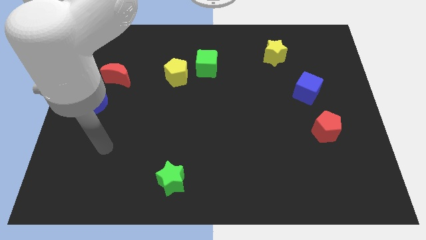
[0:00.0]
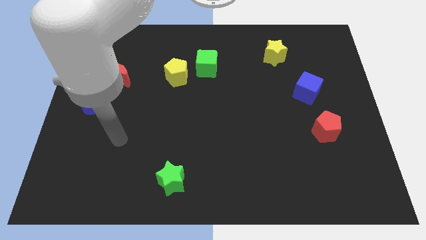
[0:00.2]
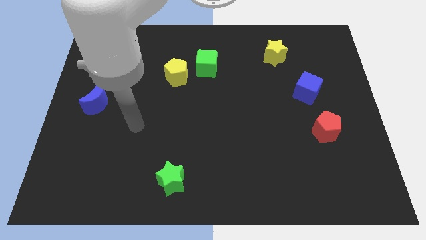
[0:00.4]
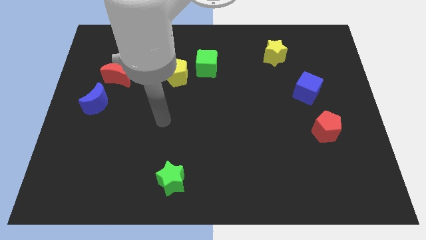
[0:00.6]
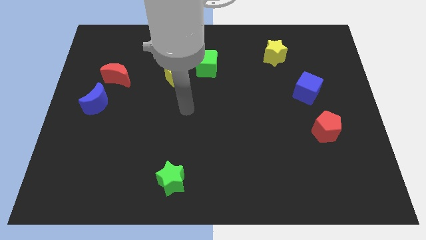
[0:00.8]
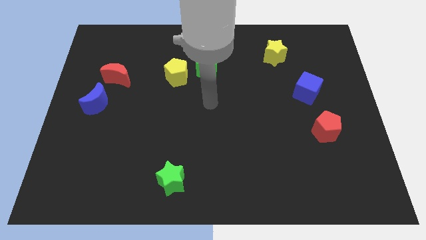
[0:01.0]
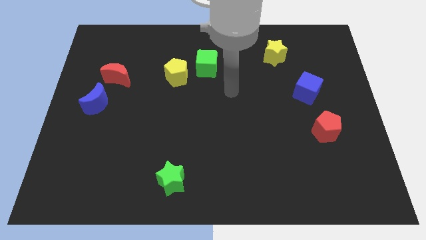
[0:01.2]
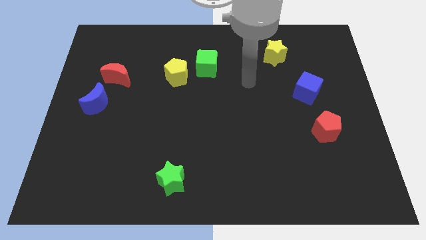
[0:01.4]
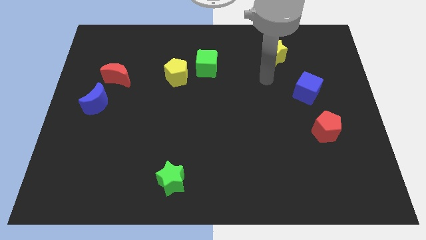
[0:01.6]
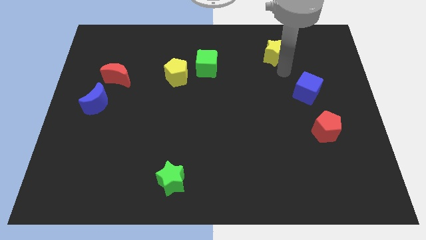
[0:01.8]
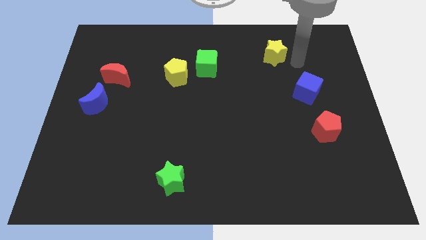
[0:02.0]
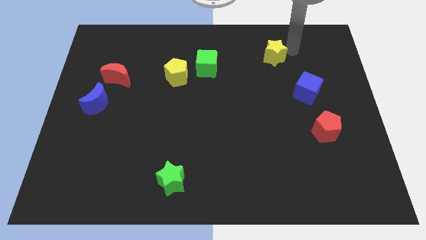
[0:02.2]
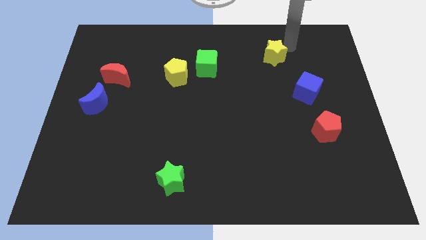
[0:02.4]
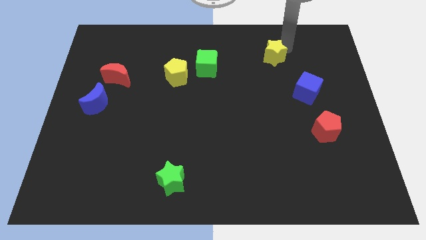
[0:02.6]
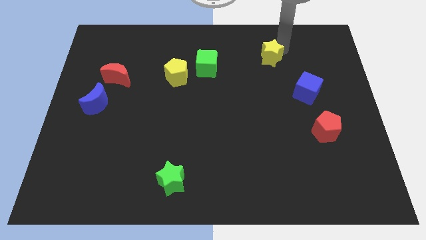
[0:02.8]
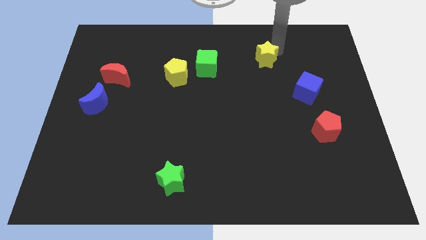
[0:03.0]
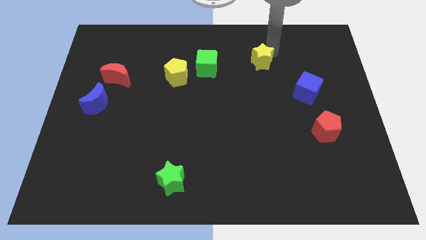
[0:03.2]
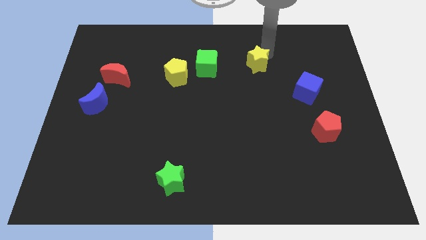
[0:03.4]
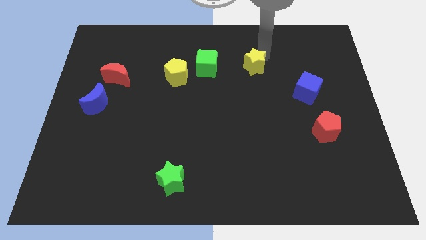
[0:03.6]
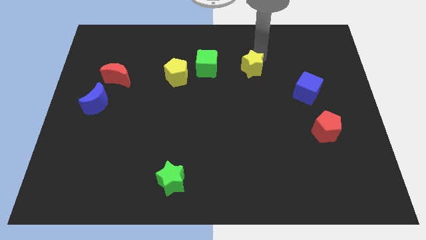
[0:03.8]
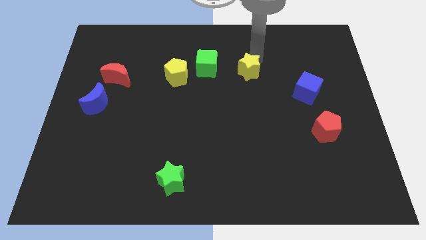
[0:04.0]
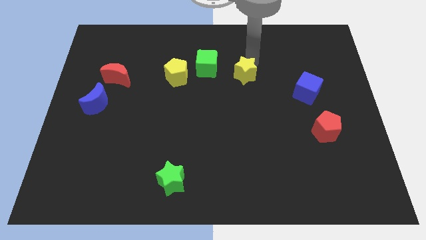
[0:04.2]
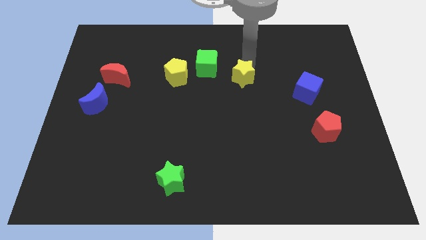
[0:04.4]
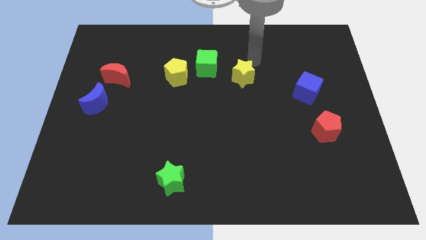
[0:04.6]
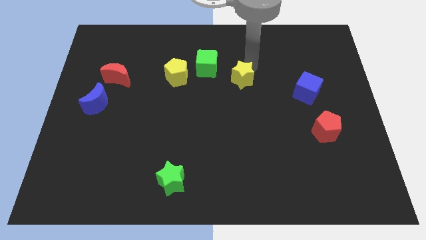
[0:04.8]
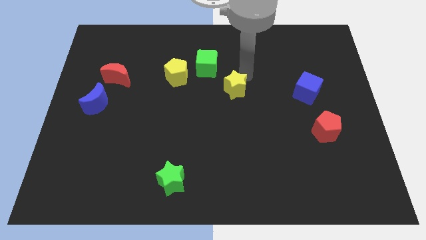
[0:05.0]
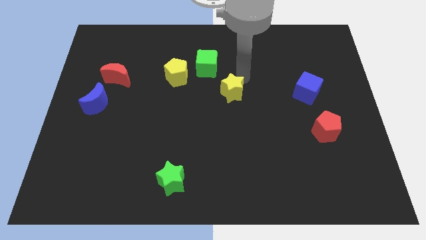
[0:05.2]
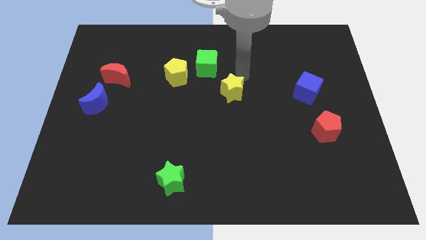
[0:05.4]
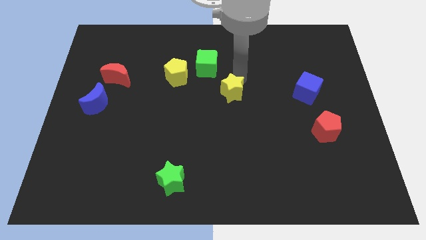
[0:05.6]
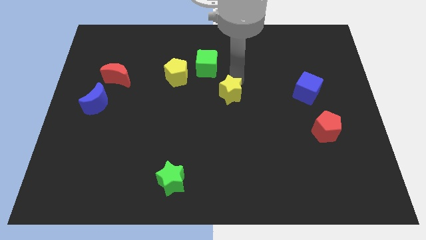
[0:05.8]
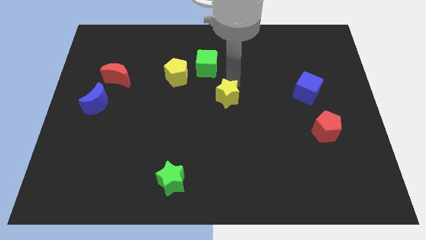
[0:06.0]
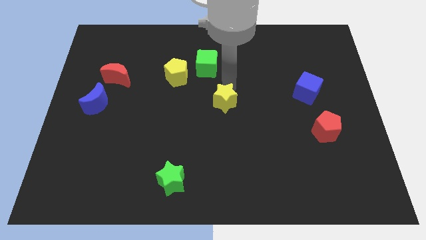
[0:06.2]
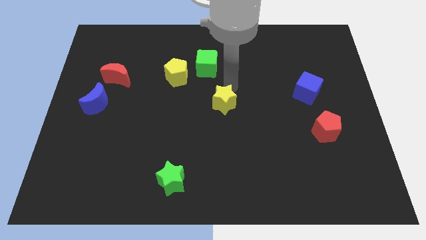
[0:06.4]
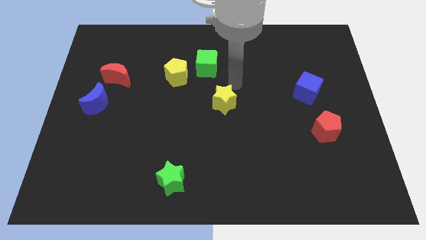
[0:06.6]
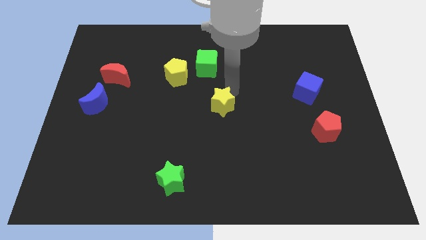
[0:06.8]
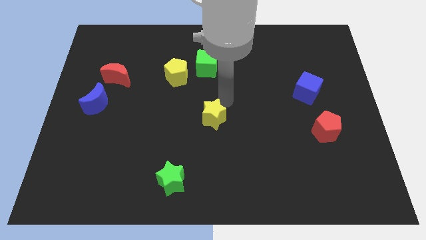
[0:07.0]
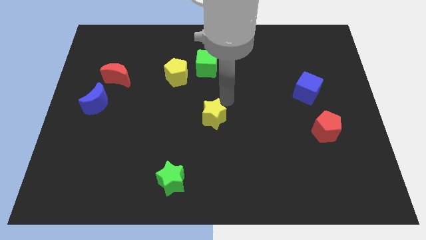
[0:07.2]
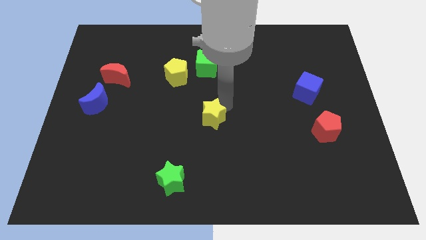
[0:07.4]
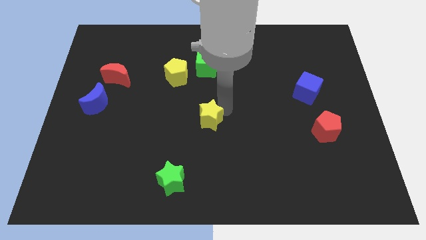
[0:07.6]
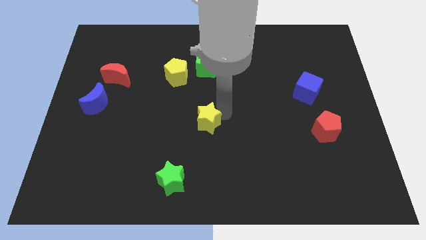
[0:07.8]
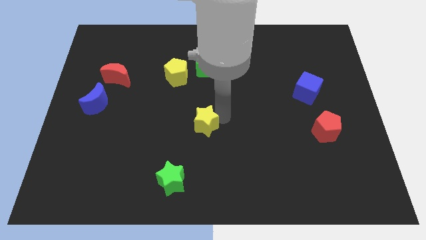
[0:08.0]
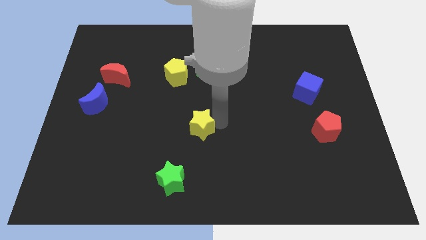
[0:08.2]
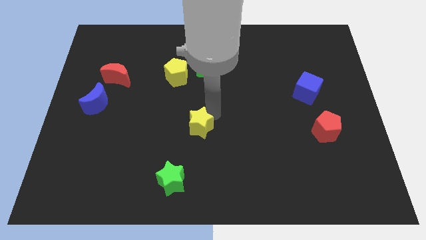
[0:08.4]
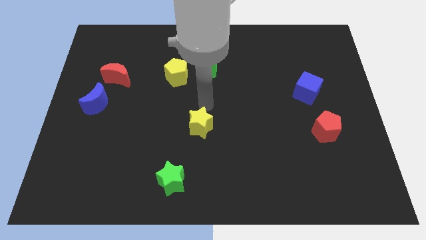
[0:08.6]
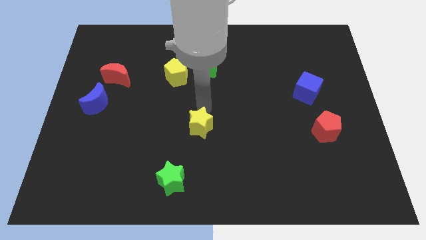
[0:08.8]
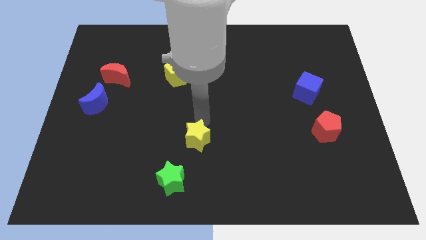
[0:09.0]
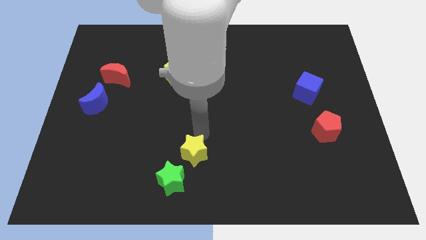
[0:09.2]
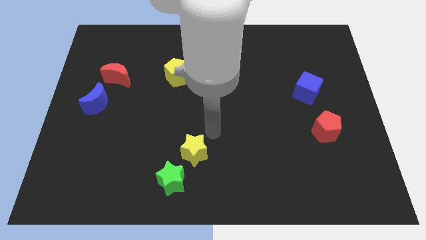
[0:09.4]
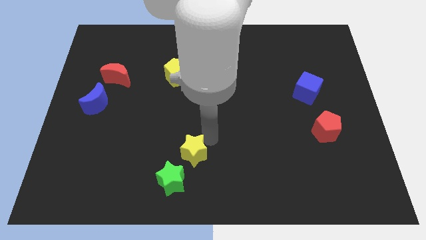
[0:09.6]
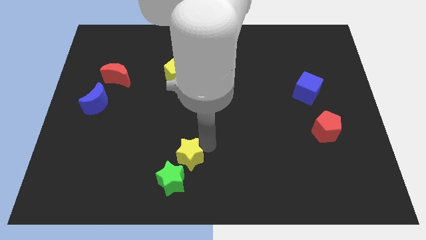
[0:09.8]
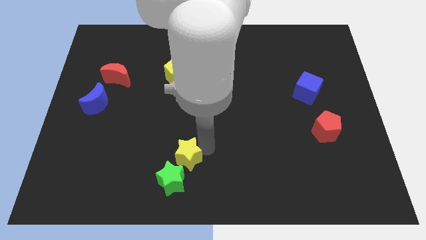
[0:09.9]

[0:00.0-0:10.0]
move the yellow star next to the green star

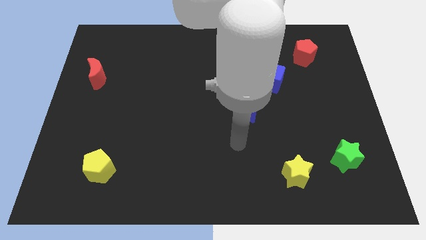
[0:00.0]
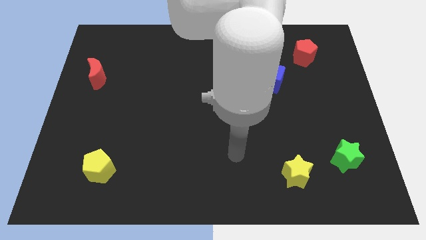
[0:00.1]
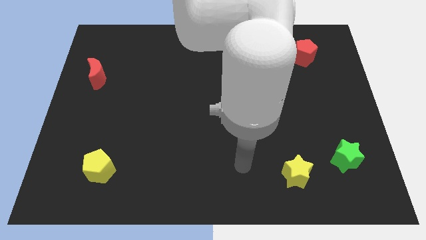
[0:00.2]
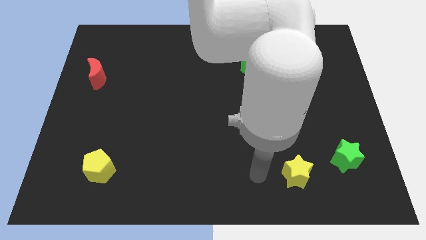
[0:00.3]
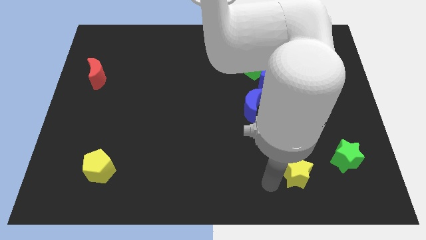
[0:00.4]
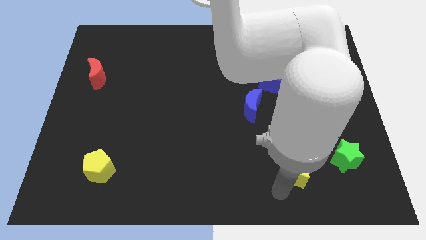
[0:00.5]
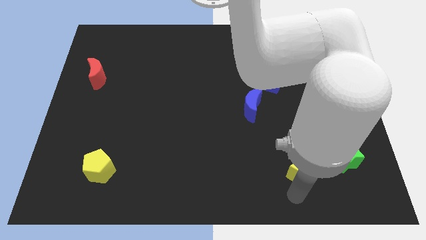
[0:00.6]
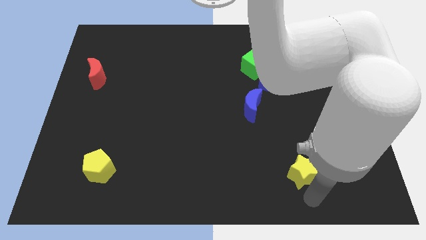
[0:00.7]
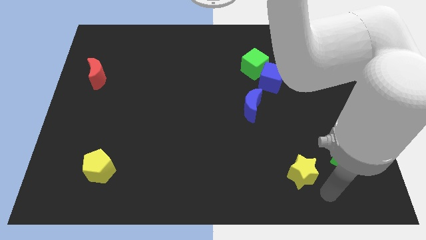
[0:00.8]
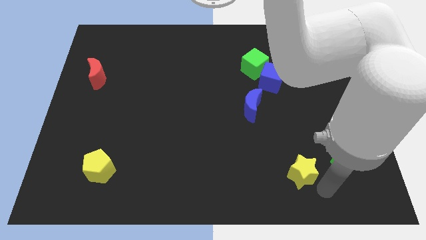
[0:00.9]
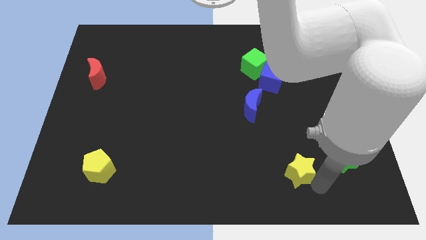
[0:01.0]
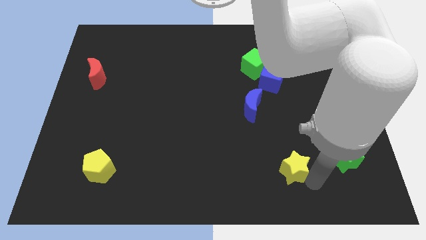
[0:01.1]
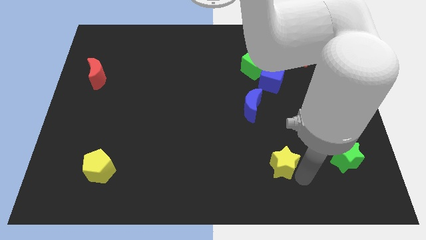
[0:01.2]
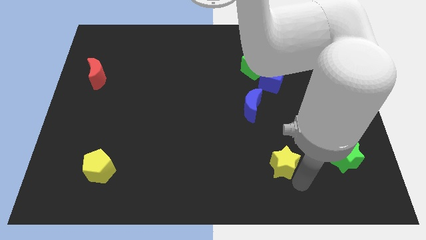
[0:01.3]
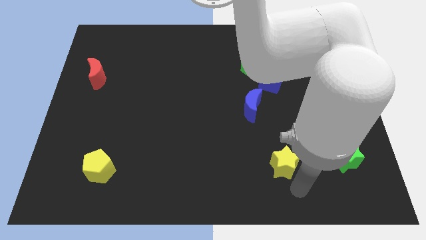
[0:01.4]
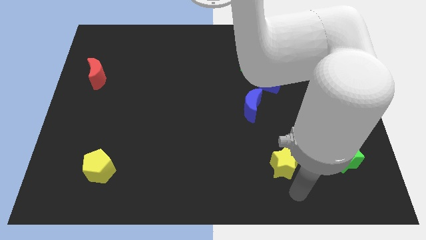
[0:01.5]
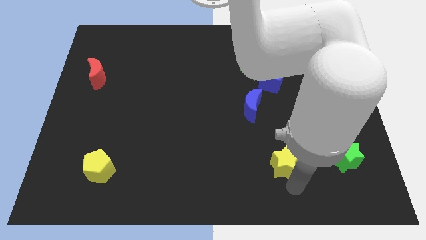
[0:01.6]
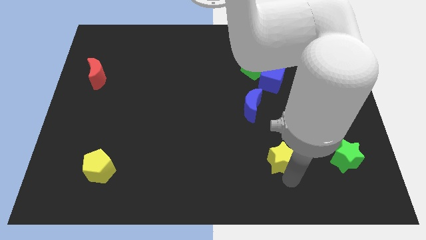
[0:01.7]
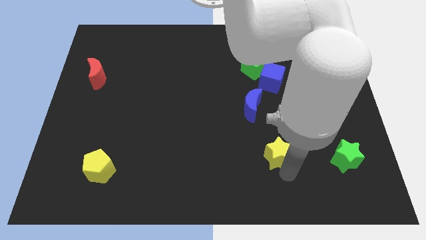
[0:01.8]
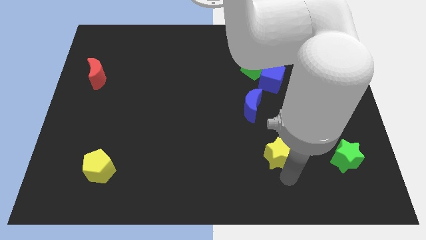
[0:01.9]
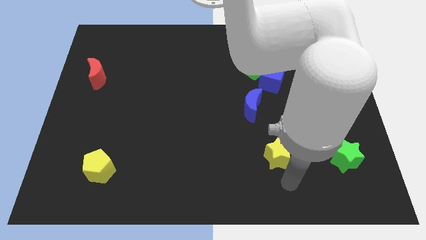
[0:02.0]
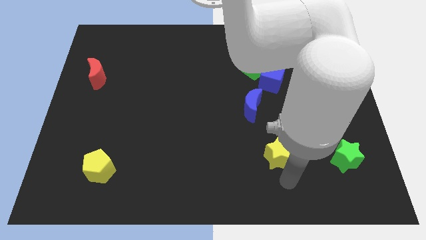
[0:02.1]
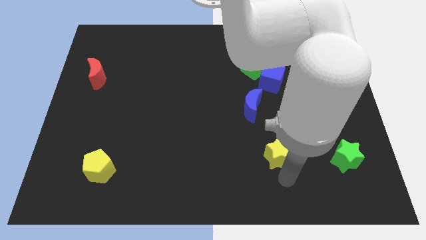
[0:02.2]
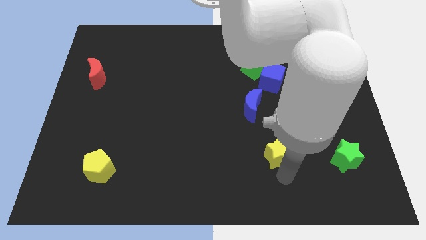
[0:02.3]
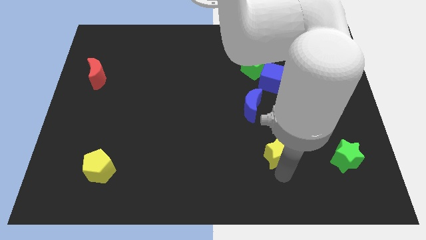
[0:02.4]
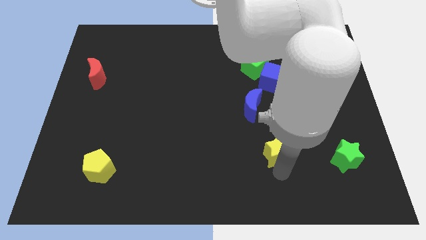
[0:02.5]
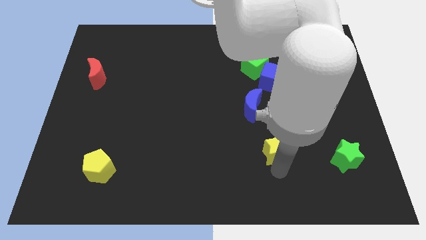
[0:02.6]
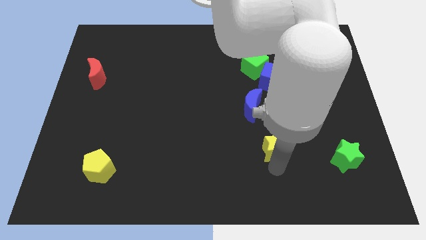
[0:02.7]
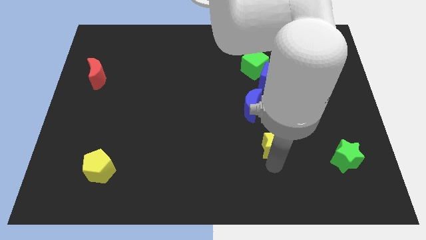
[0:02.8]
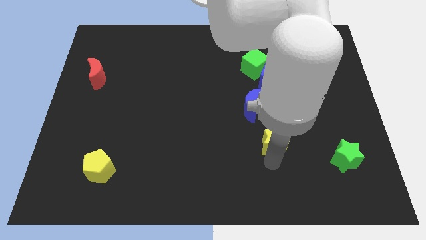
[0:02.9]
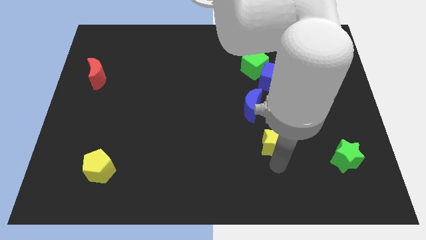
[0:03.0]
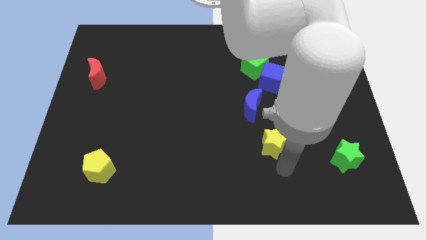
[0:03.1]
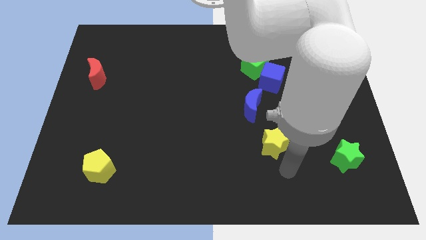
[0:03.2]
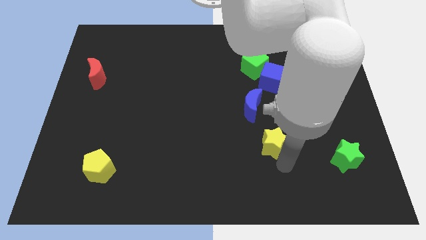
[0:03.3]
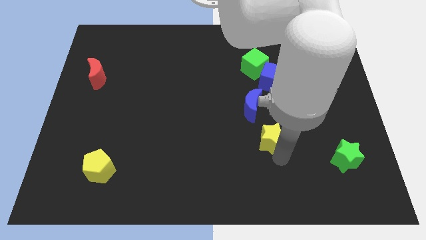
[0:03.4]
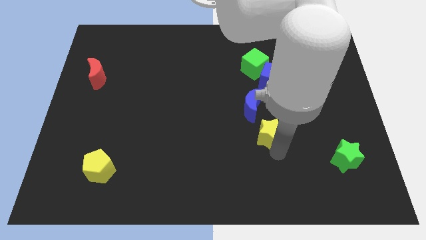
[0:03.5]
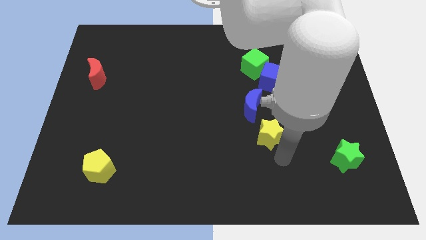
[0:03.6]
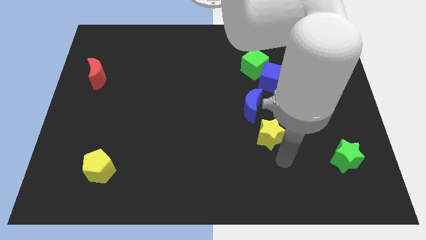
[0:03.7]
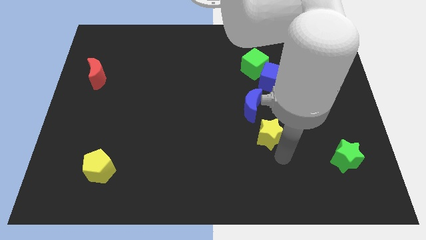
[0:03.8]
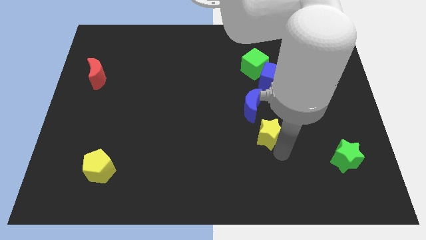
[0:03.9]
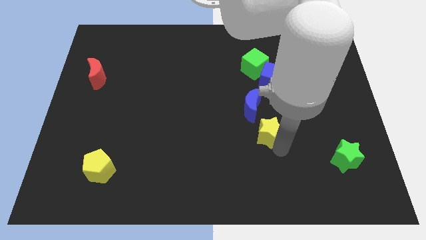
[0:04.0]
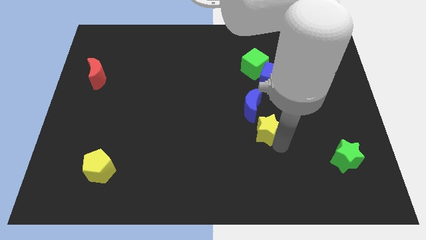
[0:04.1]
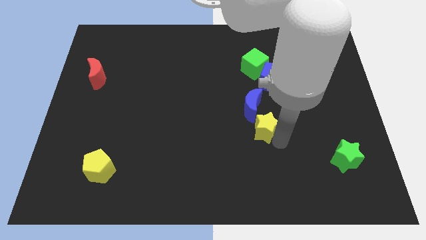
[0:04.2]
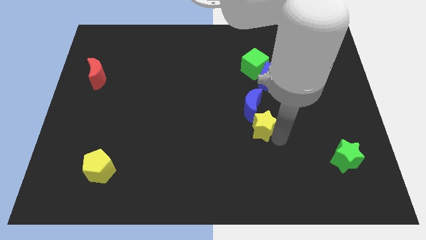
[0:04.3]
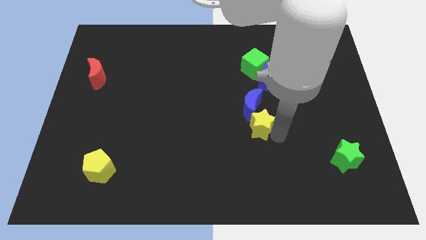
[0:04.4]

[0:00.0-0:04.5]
slide the yellow star towards the blue moon
